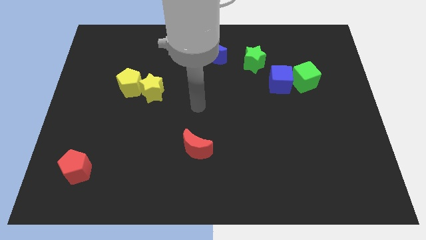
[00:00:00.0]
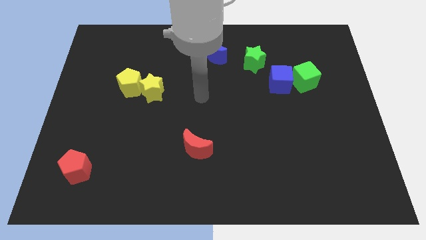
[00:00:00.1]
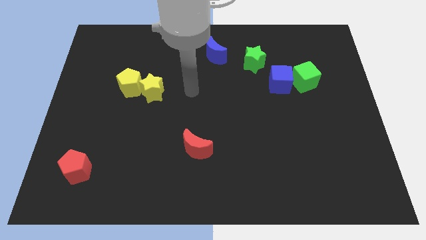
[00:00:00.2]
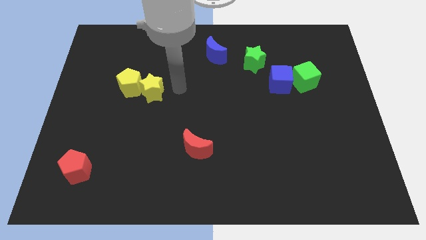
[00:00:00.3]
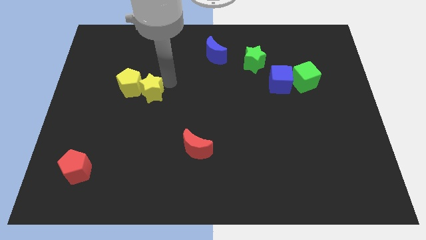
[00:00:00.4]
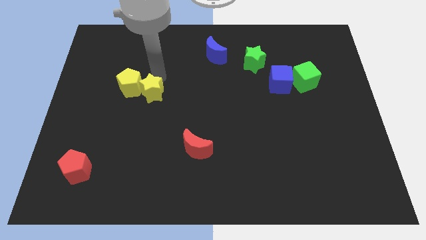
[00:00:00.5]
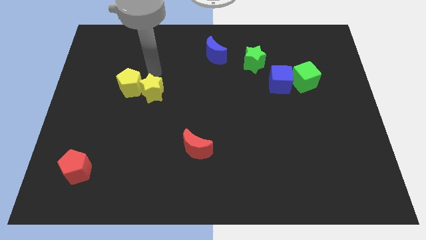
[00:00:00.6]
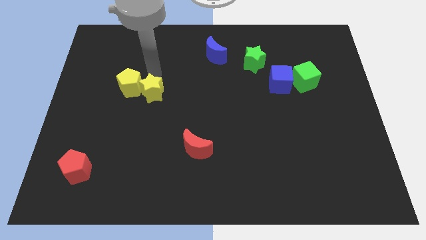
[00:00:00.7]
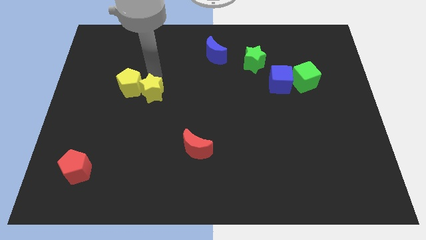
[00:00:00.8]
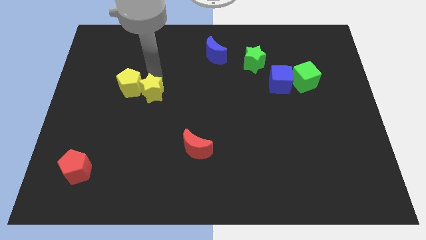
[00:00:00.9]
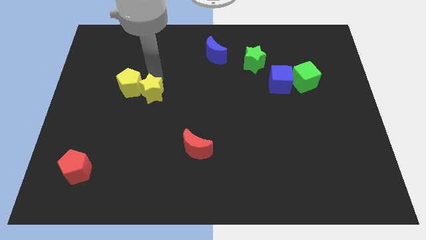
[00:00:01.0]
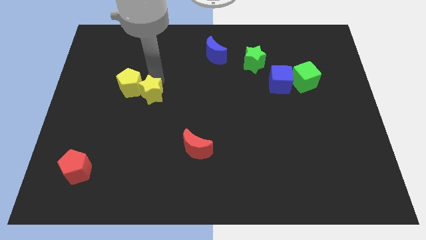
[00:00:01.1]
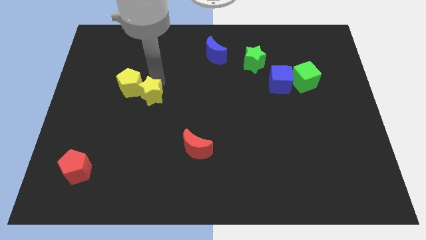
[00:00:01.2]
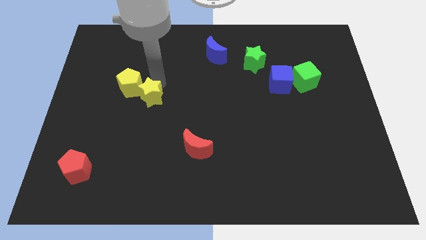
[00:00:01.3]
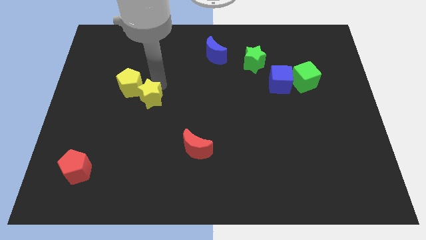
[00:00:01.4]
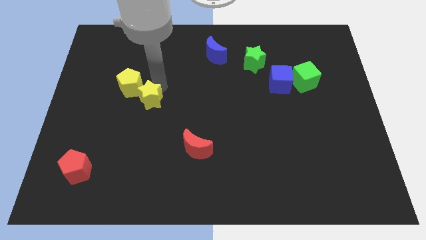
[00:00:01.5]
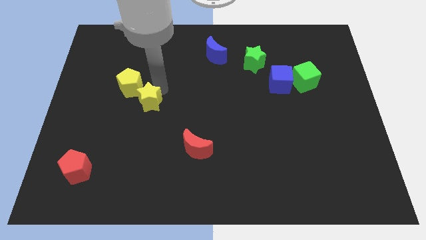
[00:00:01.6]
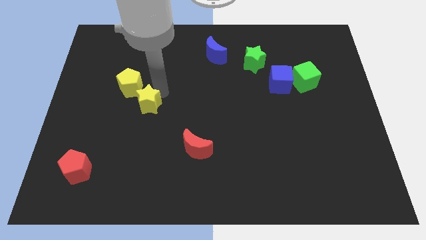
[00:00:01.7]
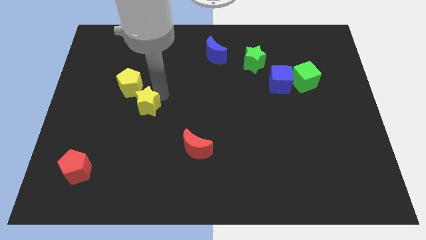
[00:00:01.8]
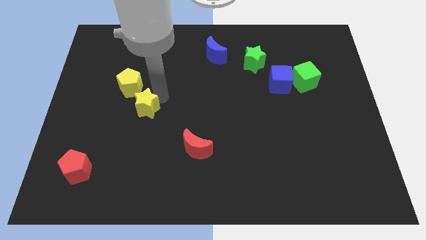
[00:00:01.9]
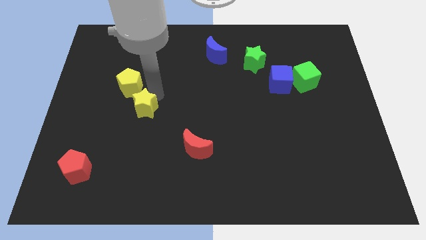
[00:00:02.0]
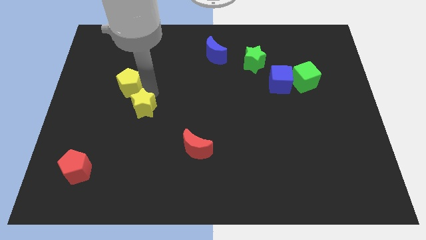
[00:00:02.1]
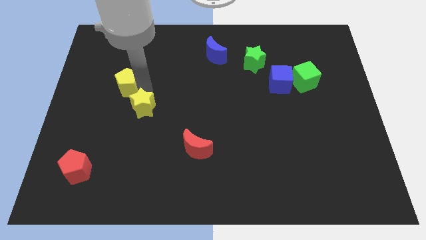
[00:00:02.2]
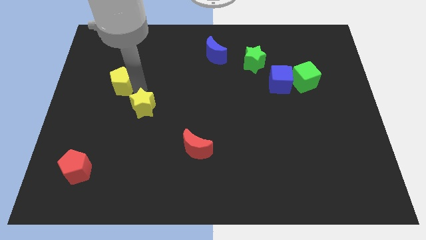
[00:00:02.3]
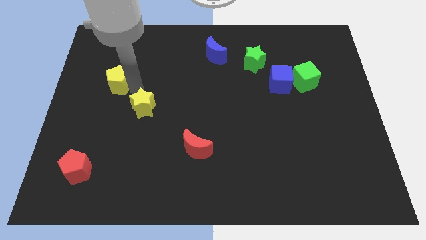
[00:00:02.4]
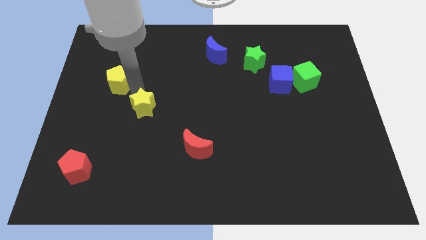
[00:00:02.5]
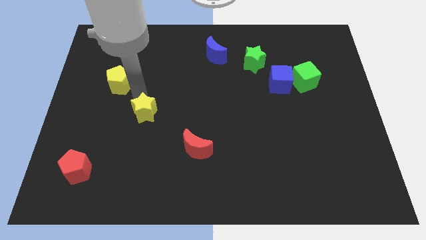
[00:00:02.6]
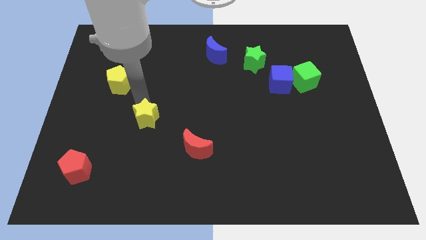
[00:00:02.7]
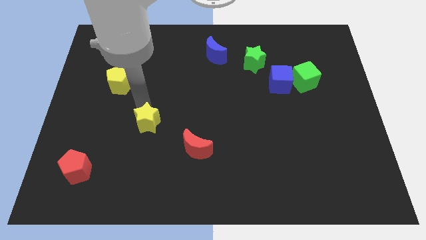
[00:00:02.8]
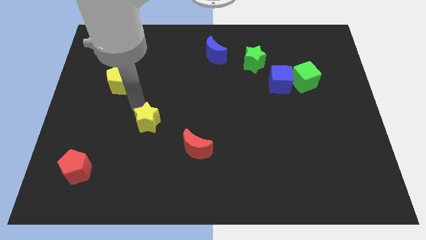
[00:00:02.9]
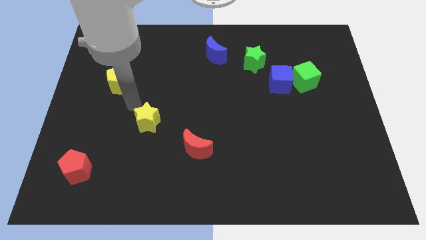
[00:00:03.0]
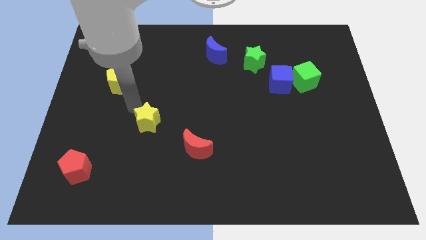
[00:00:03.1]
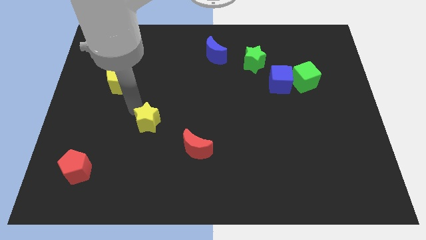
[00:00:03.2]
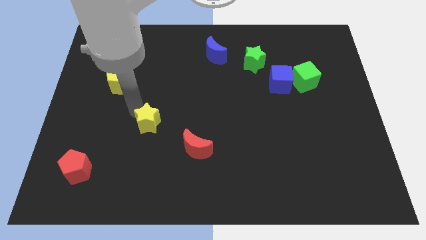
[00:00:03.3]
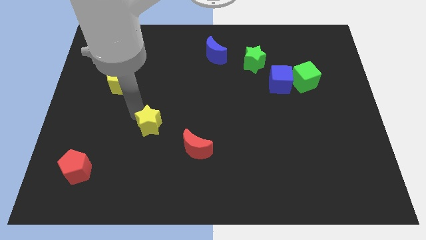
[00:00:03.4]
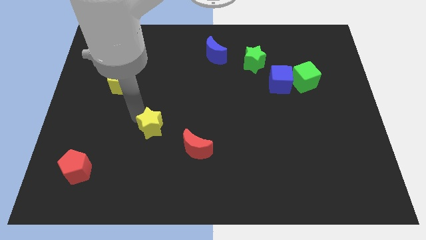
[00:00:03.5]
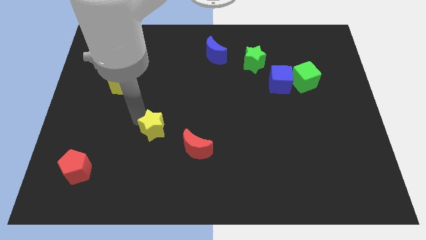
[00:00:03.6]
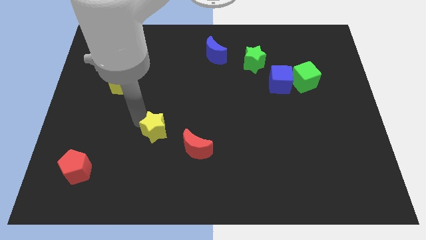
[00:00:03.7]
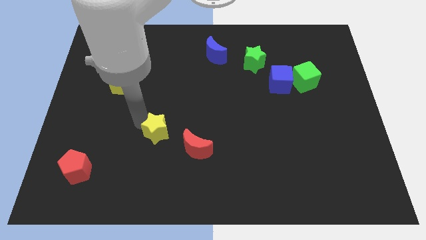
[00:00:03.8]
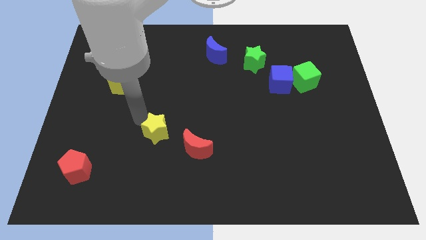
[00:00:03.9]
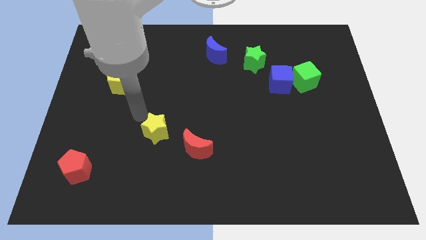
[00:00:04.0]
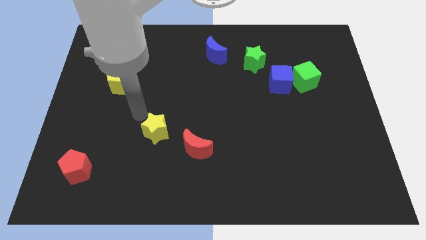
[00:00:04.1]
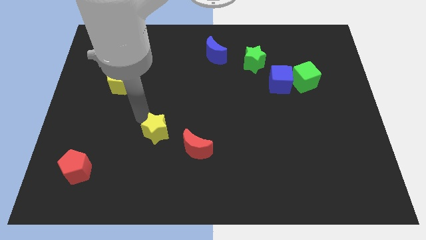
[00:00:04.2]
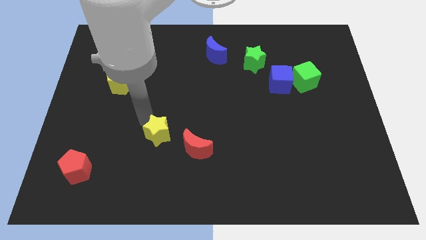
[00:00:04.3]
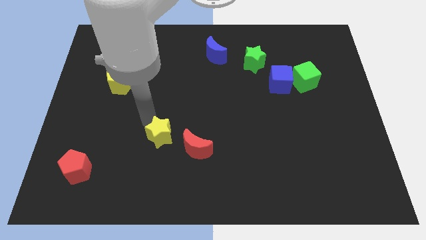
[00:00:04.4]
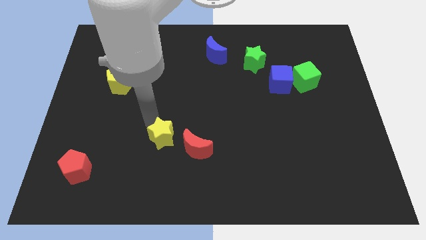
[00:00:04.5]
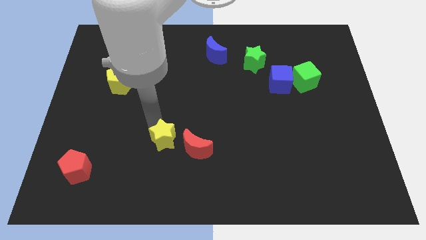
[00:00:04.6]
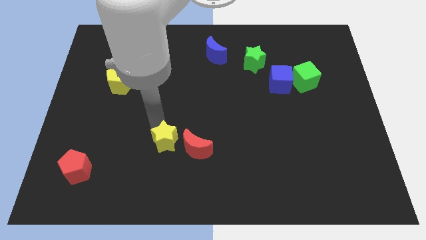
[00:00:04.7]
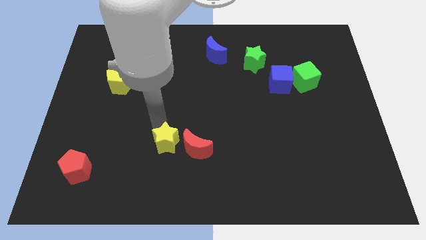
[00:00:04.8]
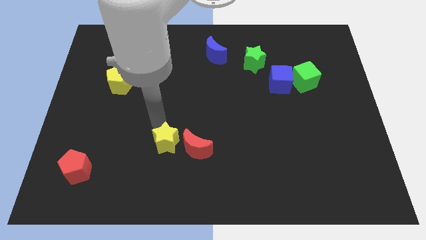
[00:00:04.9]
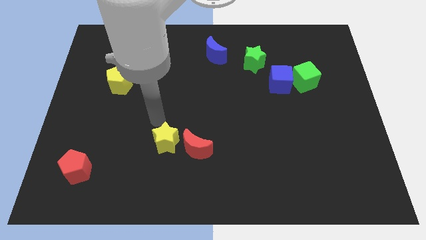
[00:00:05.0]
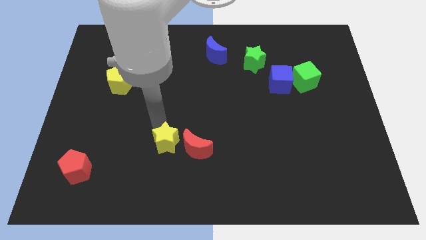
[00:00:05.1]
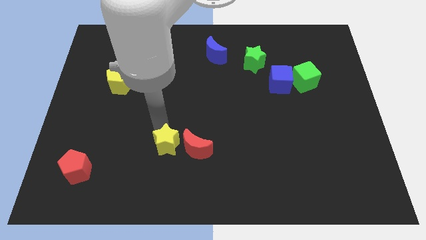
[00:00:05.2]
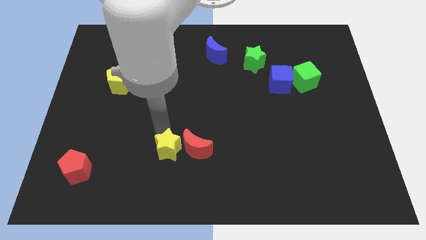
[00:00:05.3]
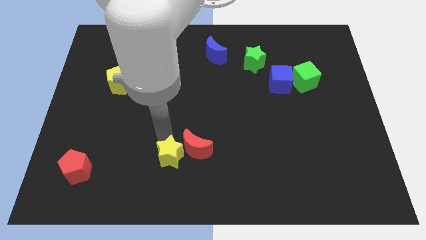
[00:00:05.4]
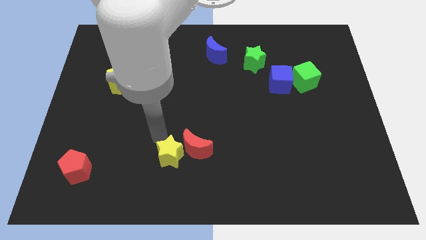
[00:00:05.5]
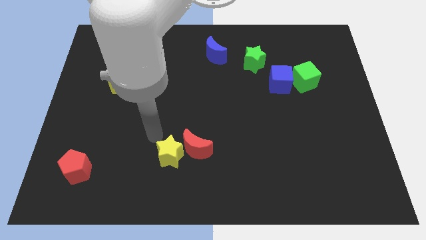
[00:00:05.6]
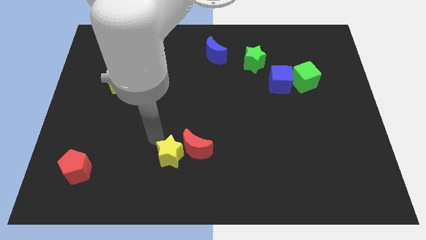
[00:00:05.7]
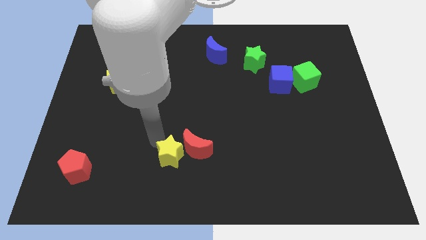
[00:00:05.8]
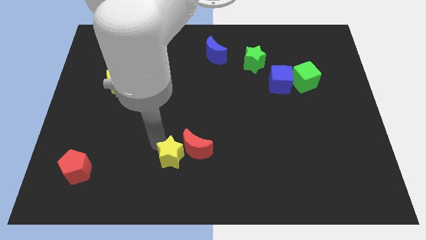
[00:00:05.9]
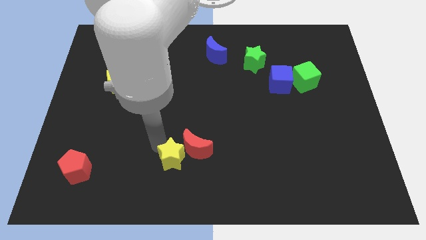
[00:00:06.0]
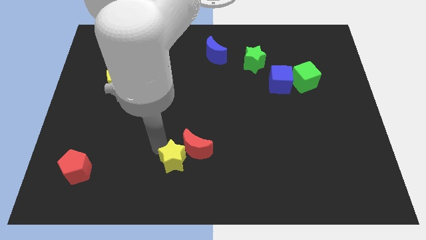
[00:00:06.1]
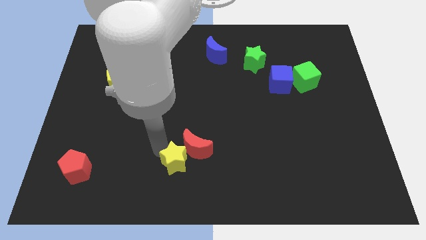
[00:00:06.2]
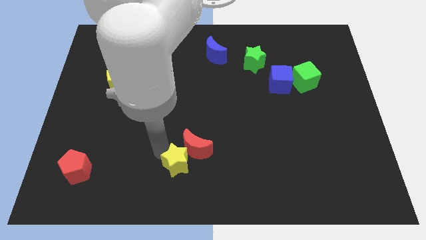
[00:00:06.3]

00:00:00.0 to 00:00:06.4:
move the yellow star to the bottom
